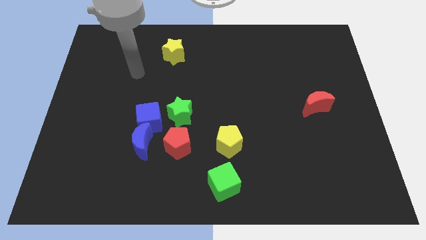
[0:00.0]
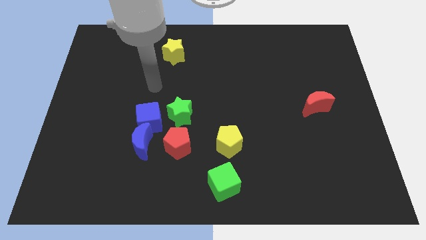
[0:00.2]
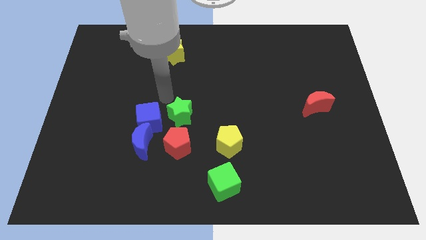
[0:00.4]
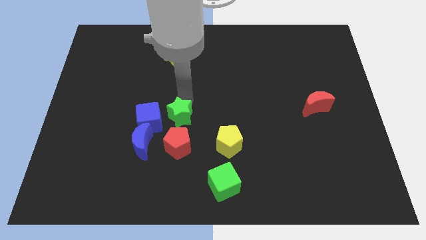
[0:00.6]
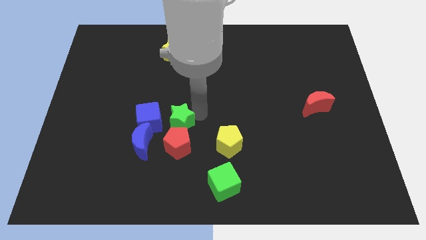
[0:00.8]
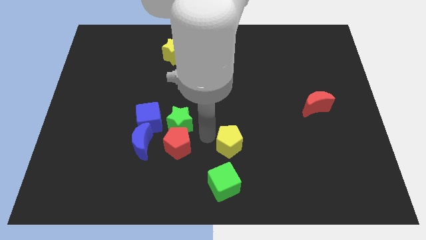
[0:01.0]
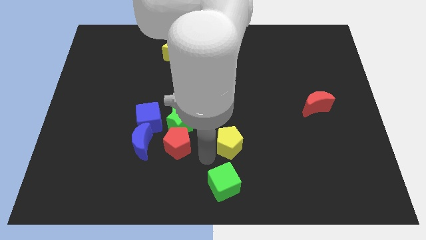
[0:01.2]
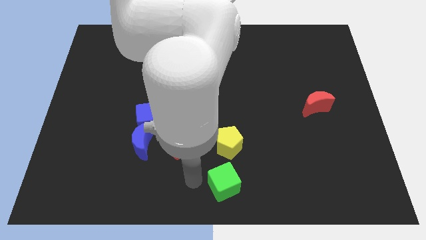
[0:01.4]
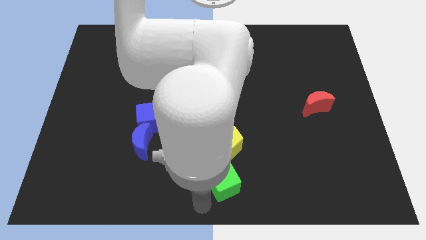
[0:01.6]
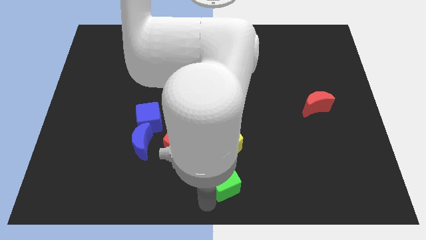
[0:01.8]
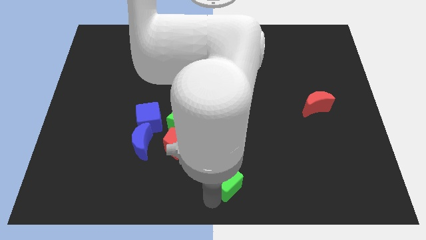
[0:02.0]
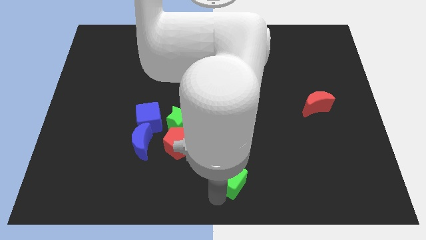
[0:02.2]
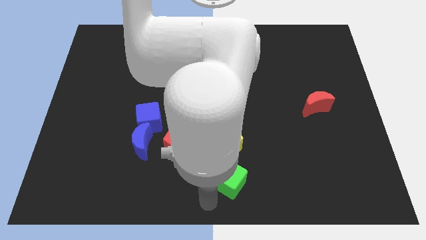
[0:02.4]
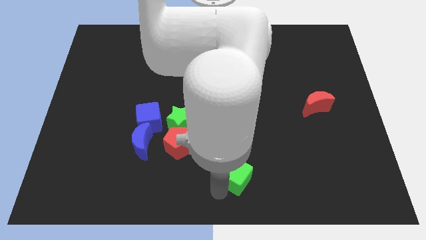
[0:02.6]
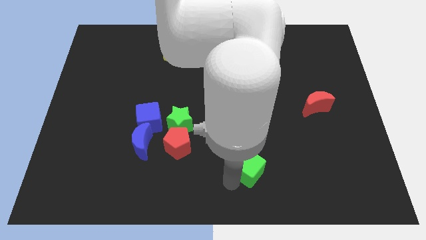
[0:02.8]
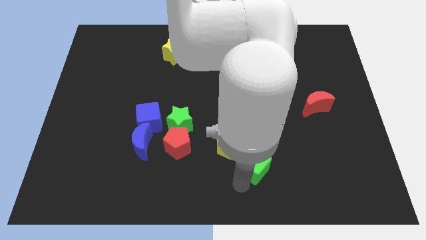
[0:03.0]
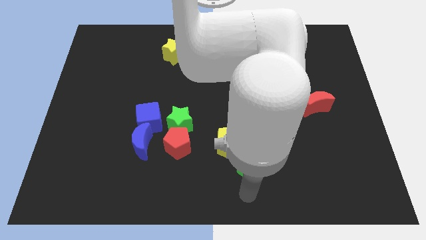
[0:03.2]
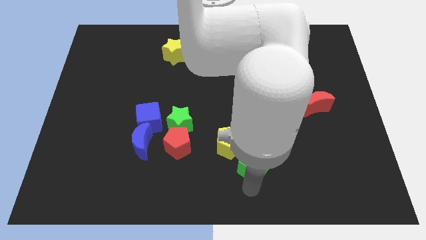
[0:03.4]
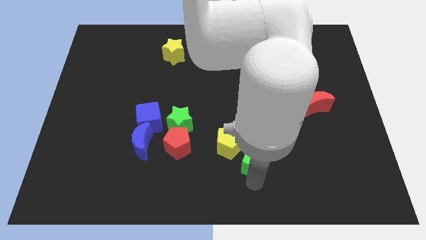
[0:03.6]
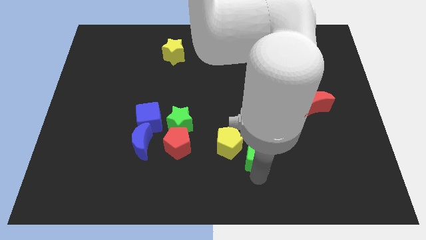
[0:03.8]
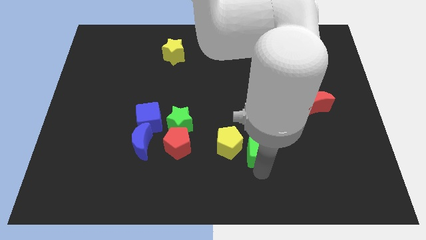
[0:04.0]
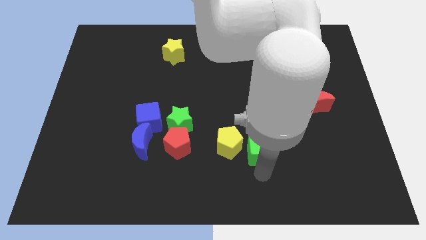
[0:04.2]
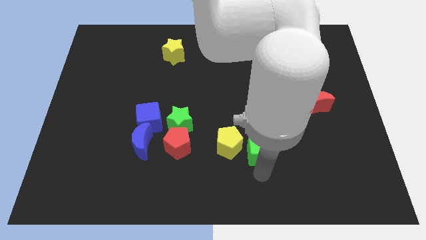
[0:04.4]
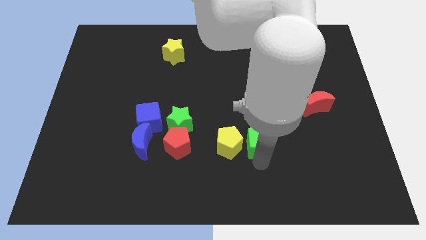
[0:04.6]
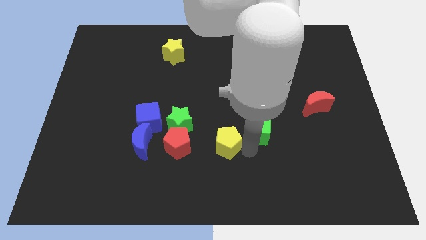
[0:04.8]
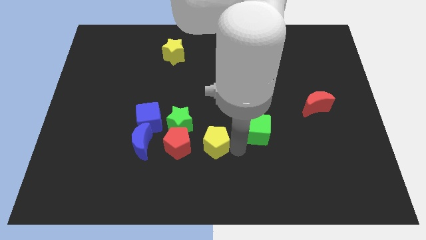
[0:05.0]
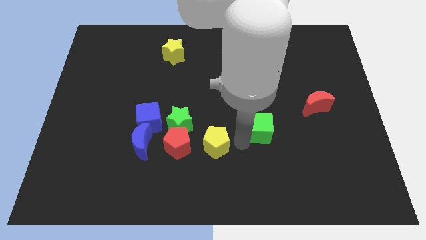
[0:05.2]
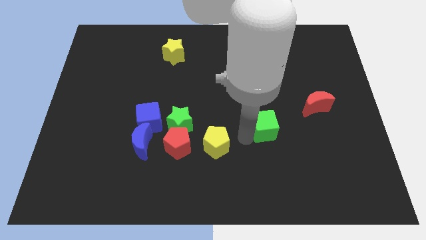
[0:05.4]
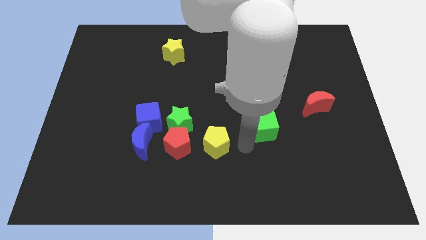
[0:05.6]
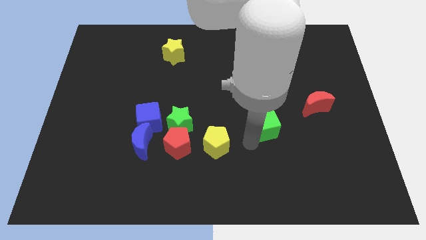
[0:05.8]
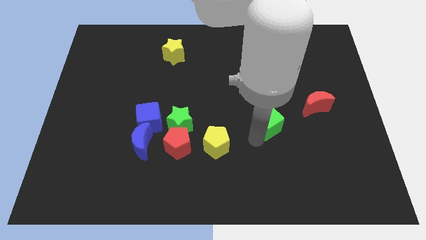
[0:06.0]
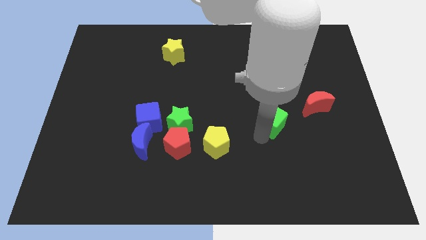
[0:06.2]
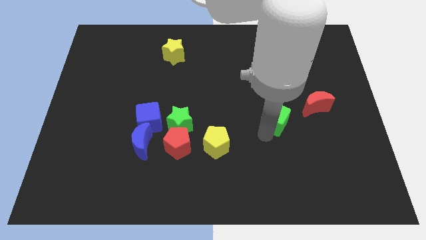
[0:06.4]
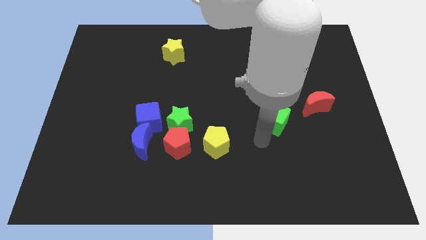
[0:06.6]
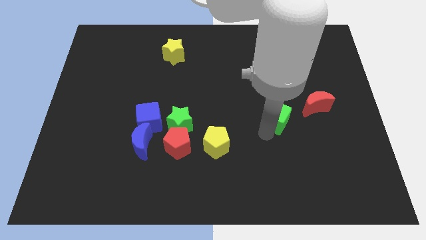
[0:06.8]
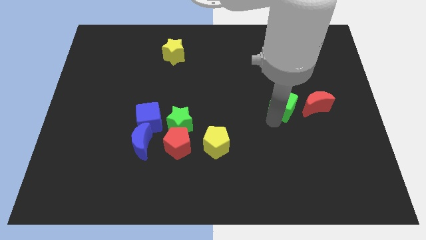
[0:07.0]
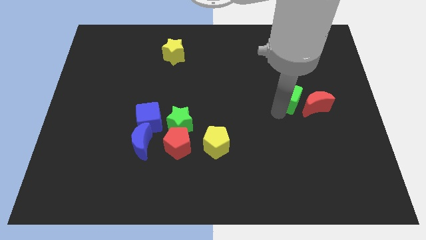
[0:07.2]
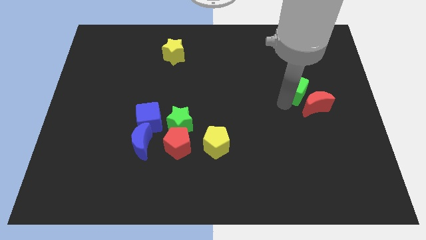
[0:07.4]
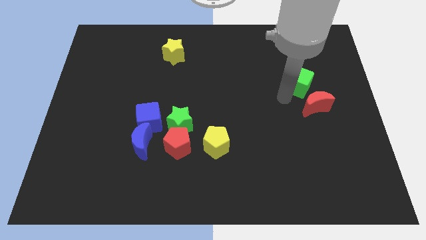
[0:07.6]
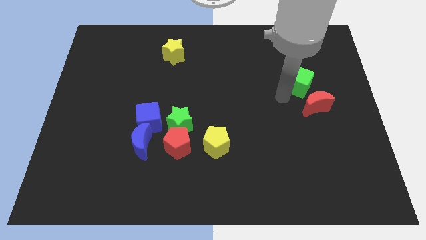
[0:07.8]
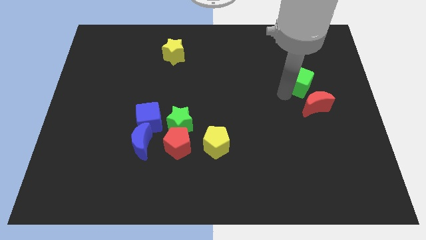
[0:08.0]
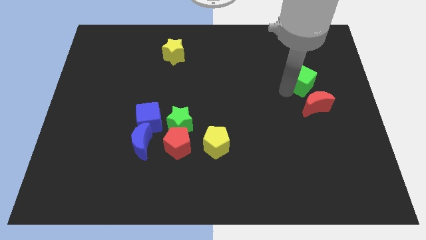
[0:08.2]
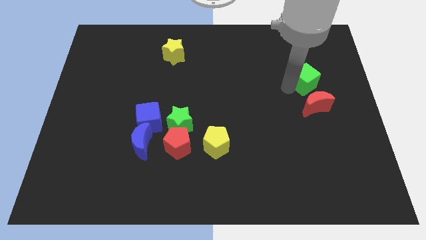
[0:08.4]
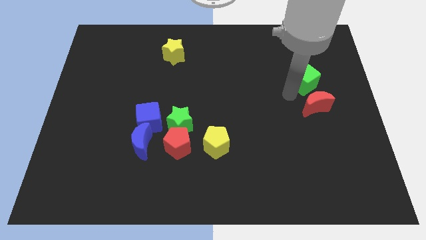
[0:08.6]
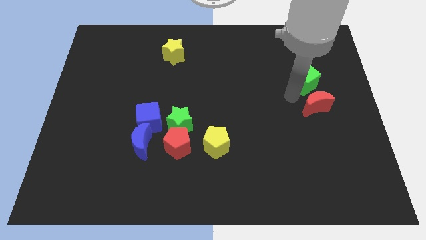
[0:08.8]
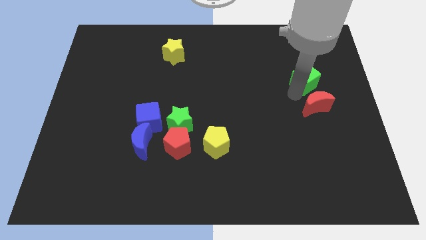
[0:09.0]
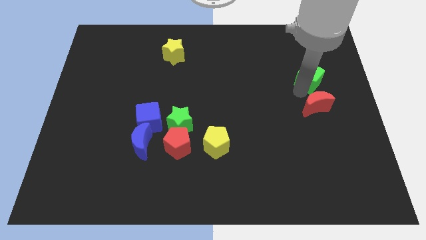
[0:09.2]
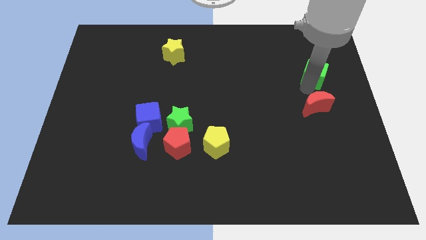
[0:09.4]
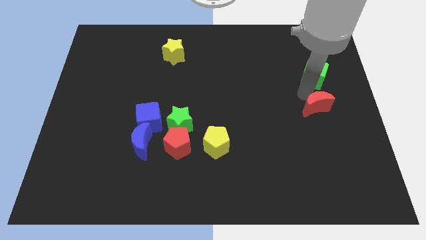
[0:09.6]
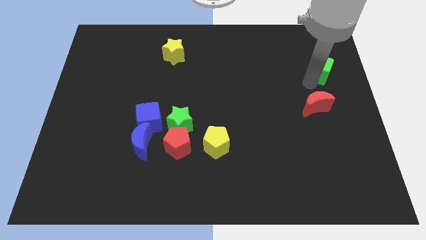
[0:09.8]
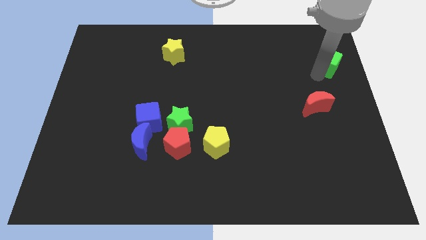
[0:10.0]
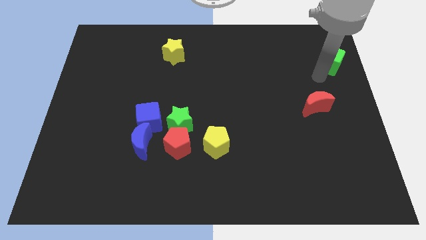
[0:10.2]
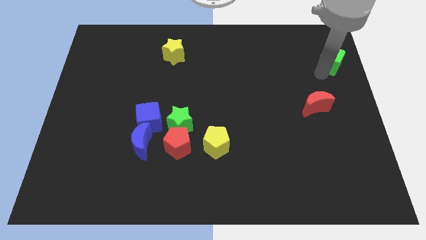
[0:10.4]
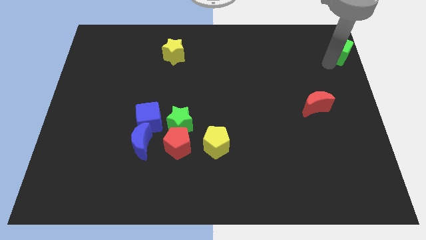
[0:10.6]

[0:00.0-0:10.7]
move the green cube to the upper right corner

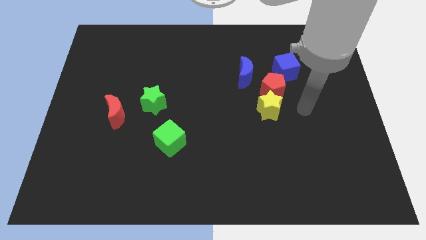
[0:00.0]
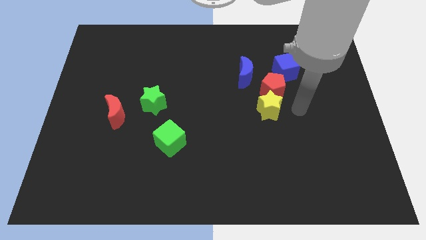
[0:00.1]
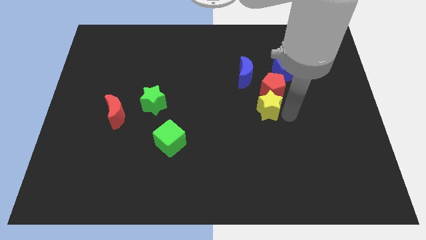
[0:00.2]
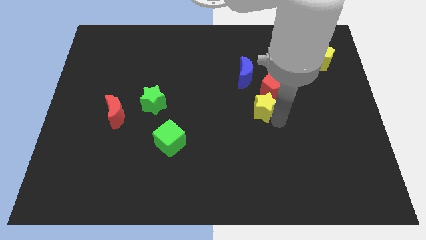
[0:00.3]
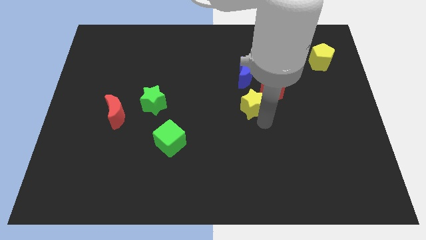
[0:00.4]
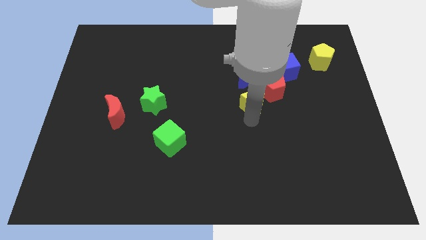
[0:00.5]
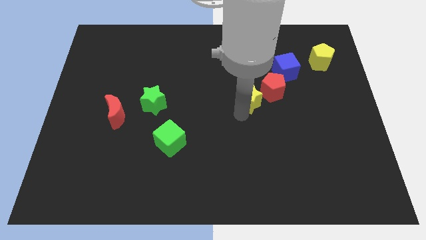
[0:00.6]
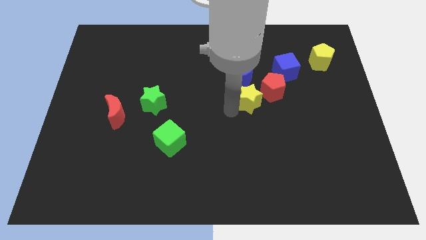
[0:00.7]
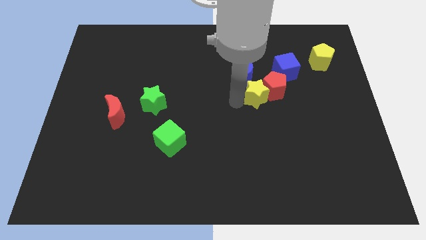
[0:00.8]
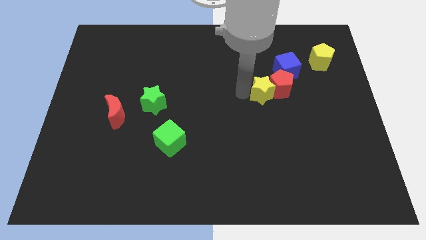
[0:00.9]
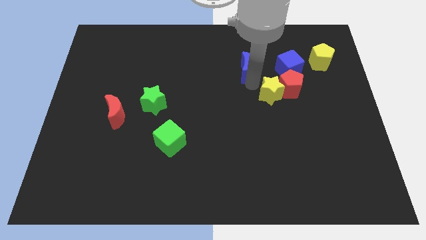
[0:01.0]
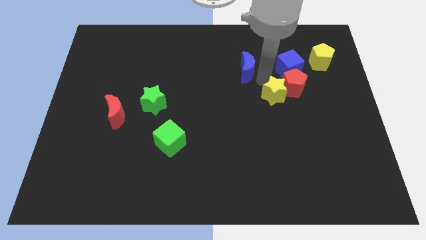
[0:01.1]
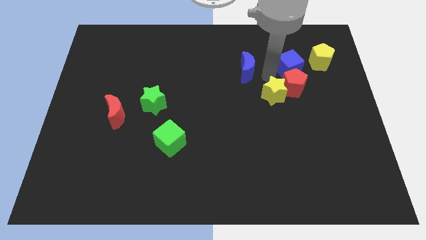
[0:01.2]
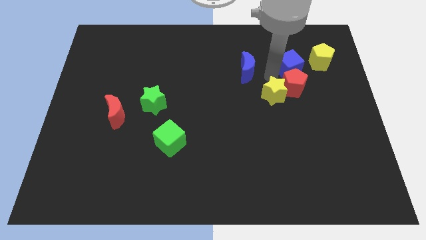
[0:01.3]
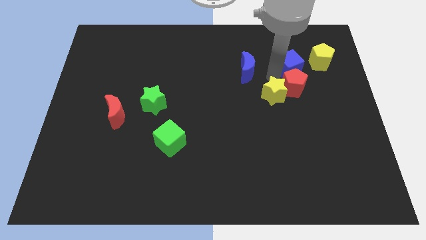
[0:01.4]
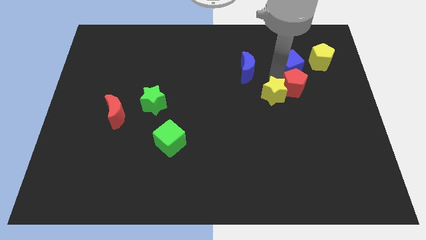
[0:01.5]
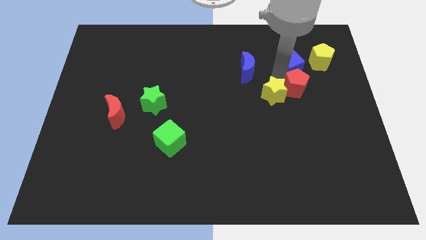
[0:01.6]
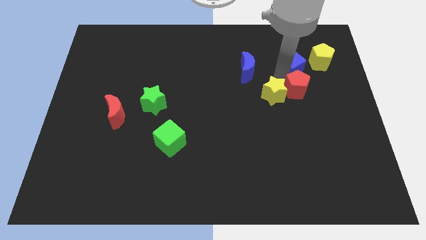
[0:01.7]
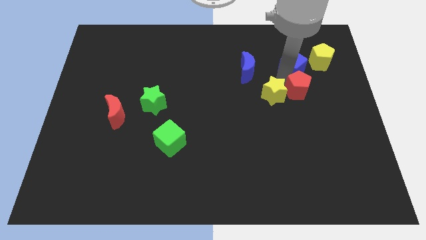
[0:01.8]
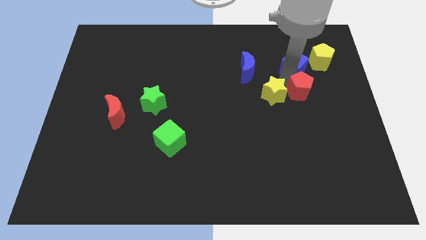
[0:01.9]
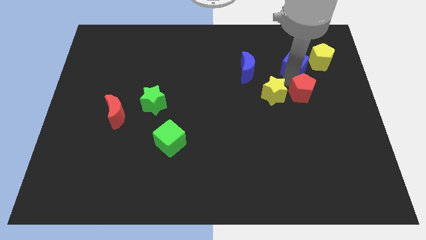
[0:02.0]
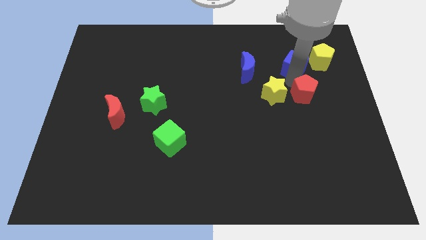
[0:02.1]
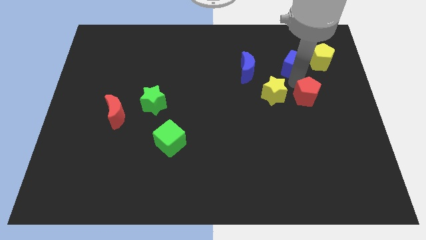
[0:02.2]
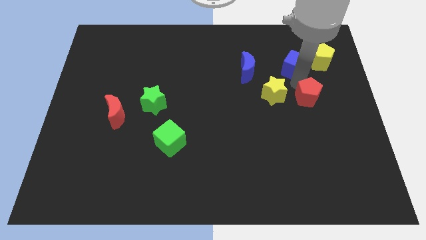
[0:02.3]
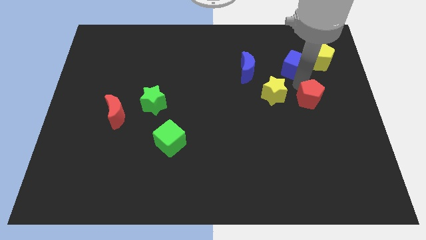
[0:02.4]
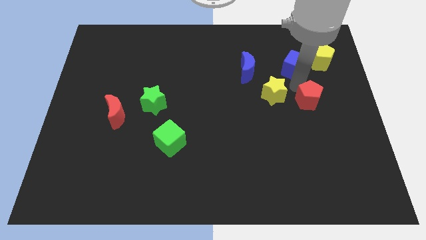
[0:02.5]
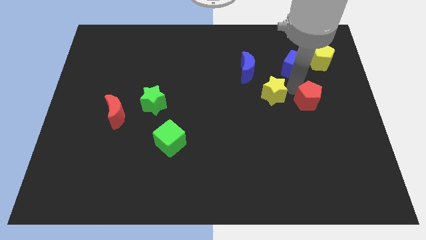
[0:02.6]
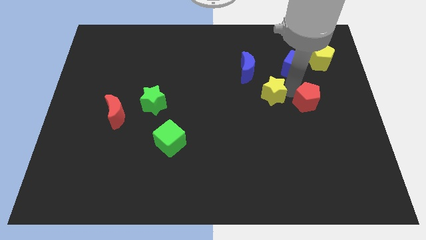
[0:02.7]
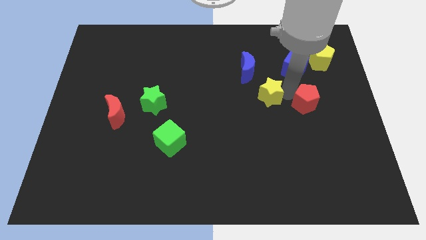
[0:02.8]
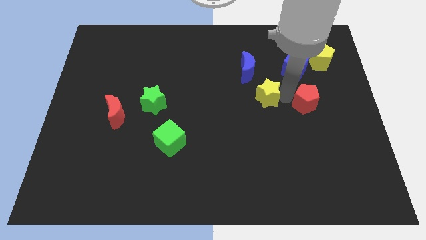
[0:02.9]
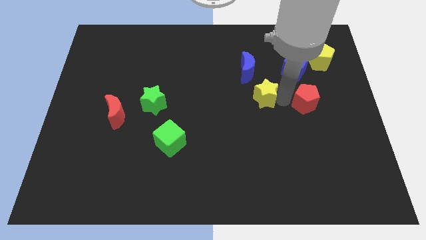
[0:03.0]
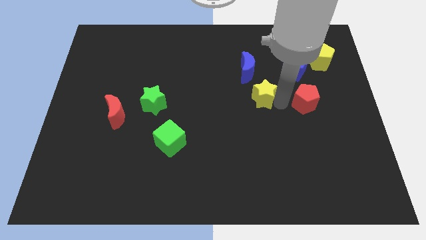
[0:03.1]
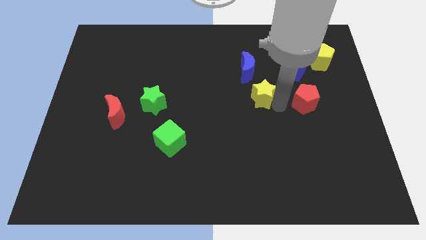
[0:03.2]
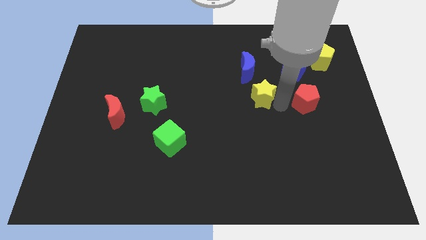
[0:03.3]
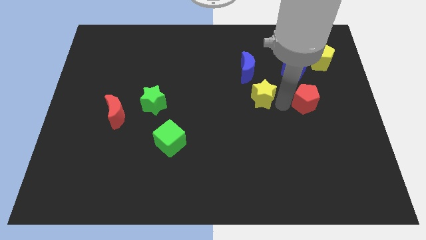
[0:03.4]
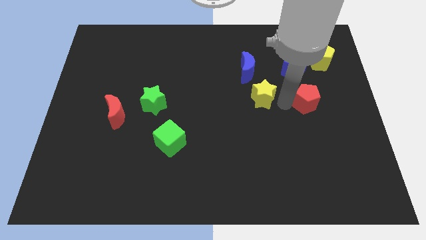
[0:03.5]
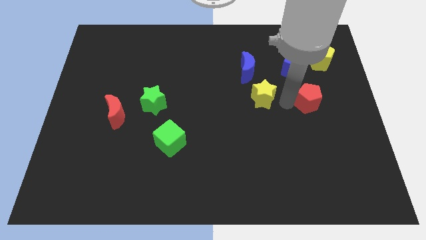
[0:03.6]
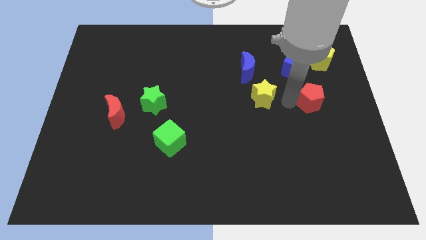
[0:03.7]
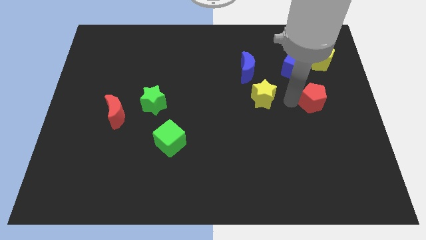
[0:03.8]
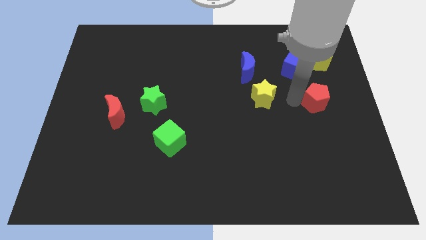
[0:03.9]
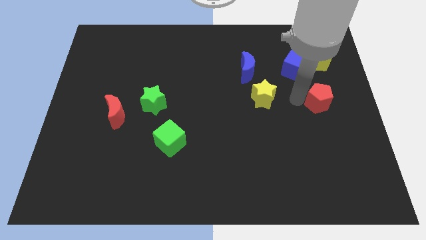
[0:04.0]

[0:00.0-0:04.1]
push the red pentagon to the center right
